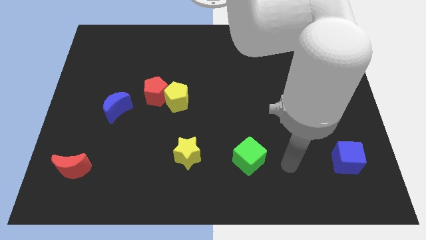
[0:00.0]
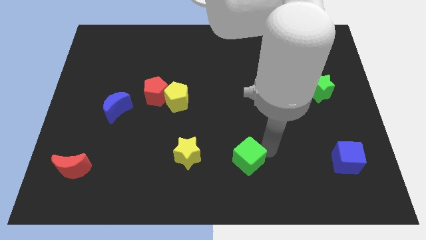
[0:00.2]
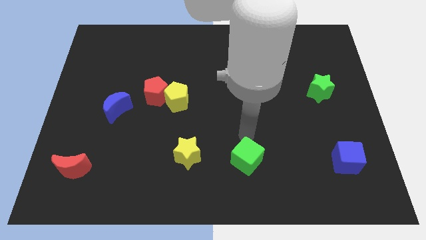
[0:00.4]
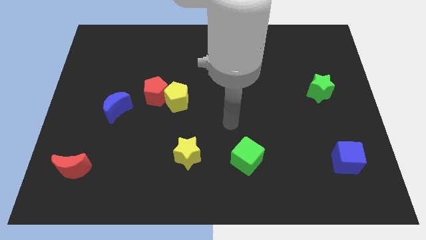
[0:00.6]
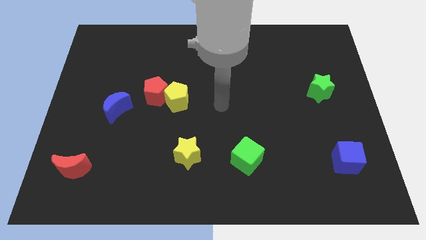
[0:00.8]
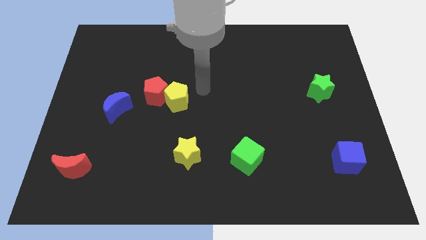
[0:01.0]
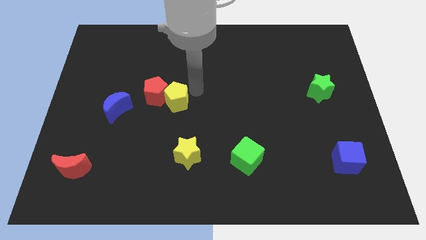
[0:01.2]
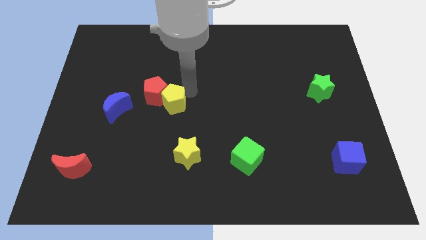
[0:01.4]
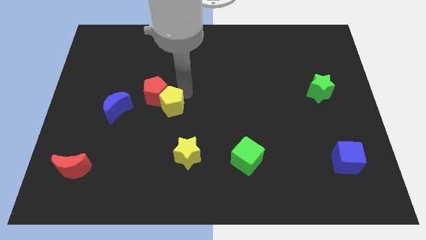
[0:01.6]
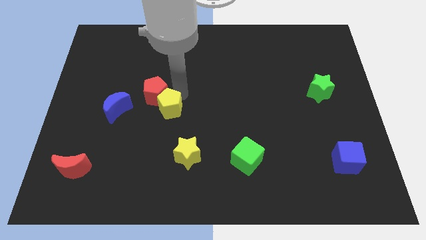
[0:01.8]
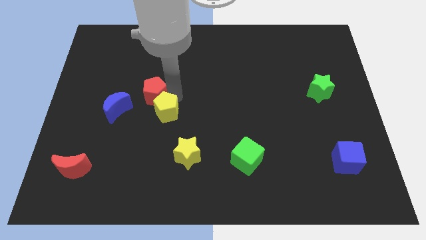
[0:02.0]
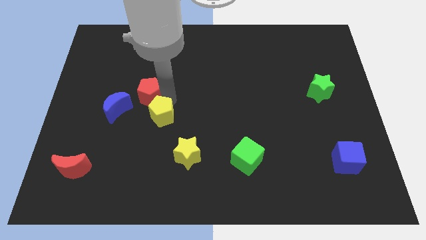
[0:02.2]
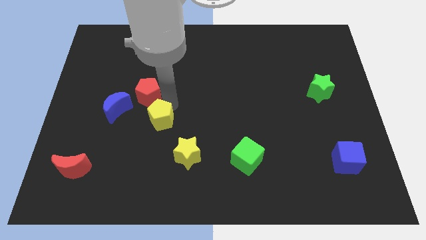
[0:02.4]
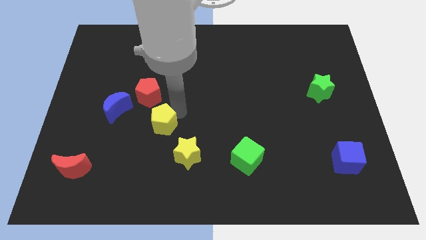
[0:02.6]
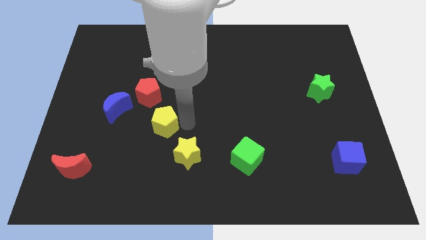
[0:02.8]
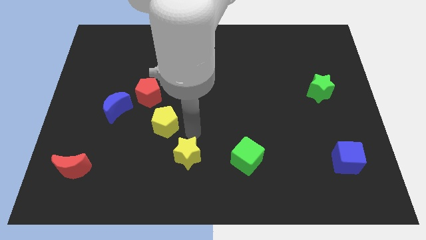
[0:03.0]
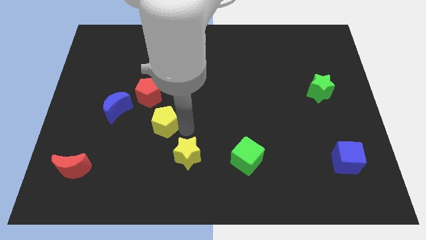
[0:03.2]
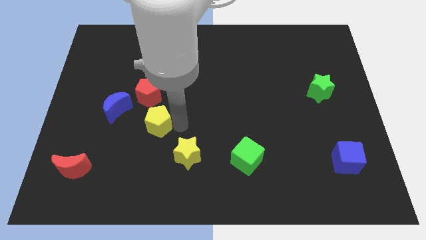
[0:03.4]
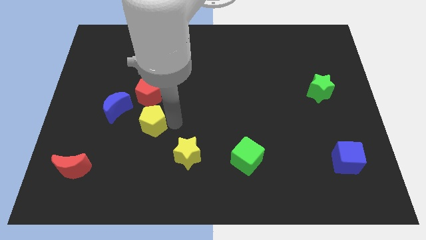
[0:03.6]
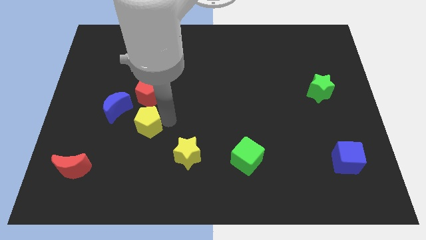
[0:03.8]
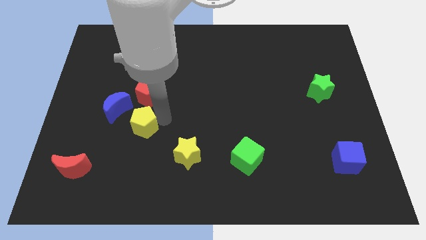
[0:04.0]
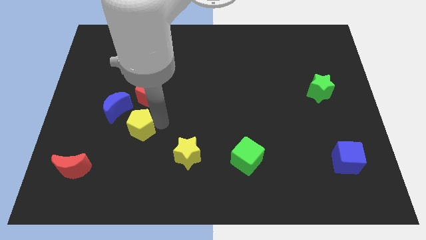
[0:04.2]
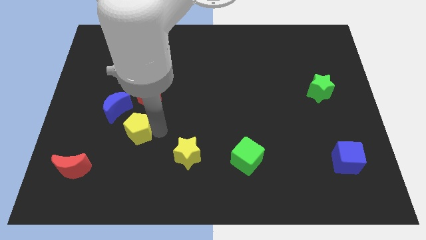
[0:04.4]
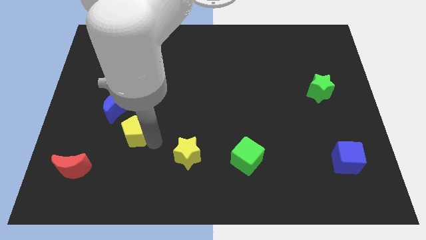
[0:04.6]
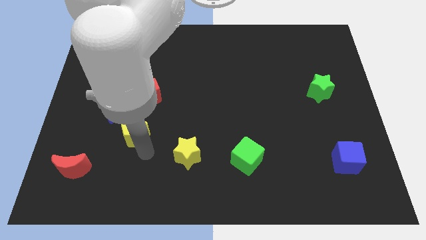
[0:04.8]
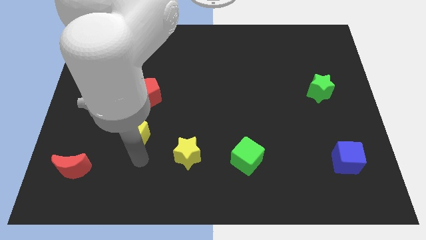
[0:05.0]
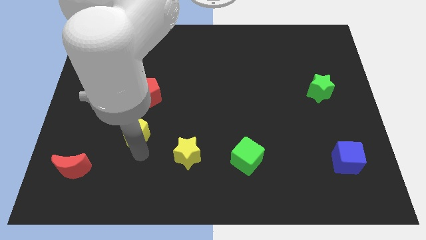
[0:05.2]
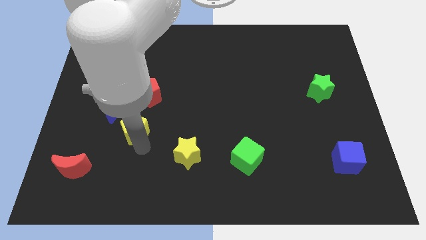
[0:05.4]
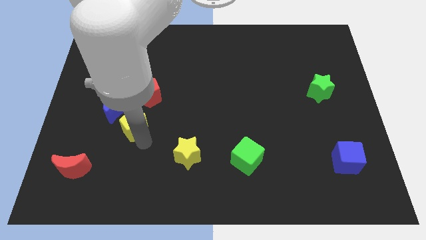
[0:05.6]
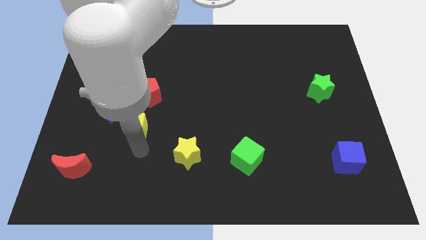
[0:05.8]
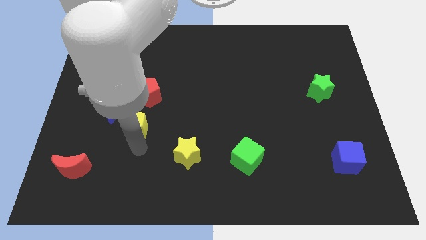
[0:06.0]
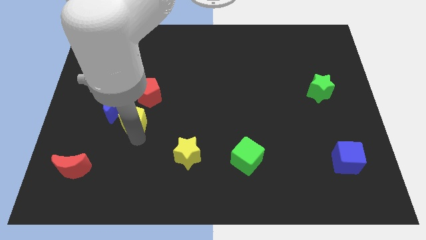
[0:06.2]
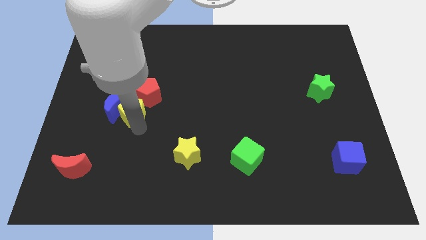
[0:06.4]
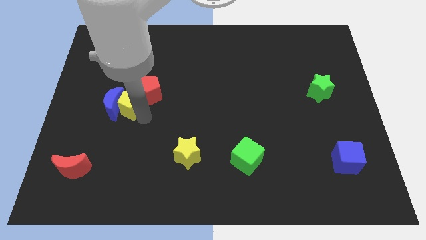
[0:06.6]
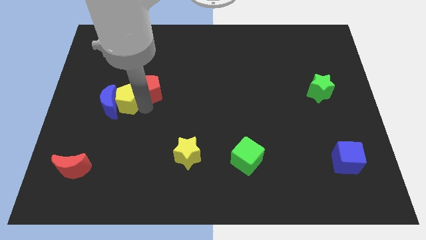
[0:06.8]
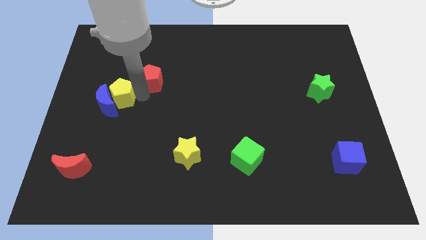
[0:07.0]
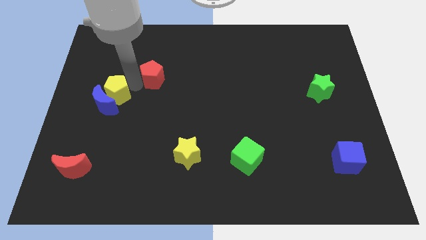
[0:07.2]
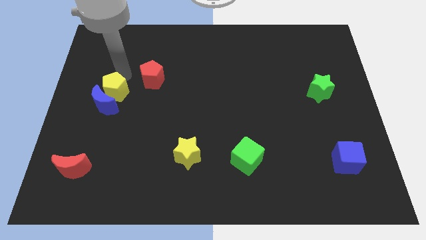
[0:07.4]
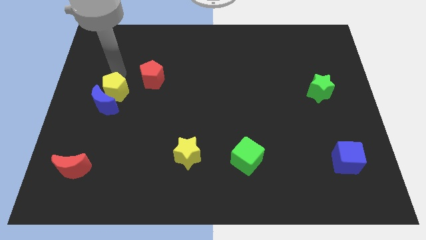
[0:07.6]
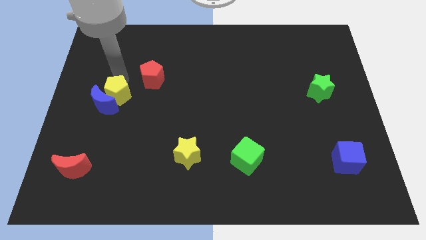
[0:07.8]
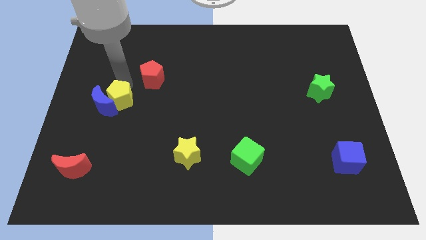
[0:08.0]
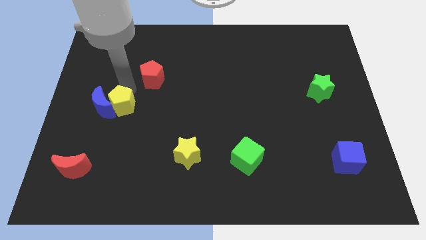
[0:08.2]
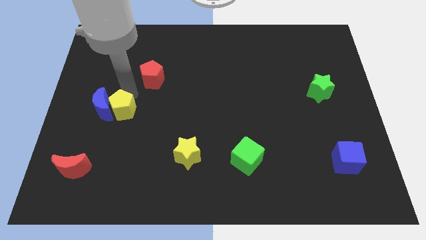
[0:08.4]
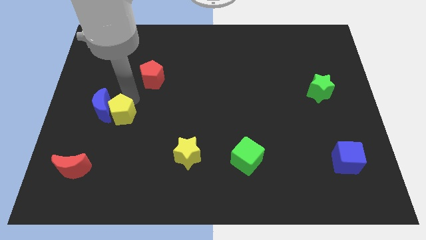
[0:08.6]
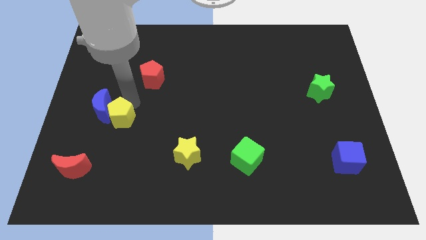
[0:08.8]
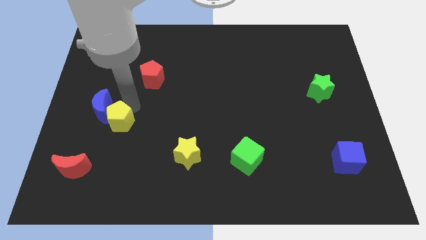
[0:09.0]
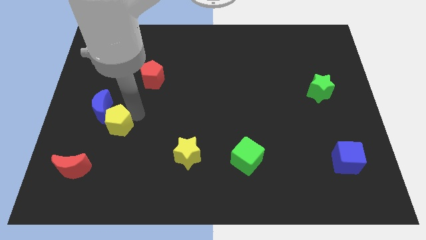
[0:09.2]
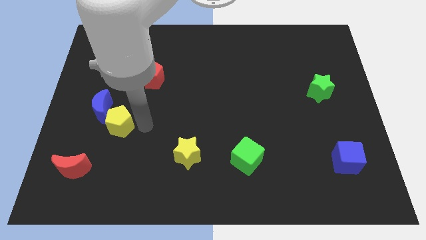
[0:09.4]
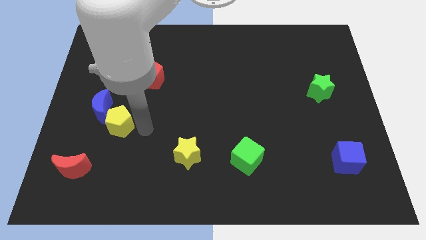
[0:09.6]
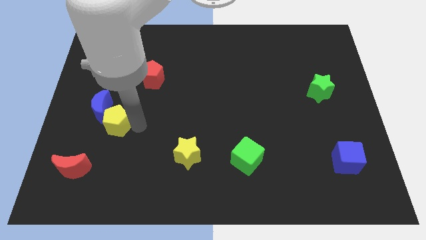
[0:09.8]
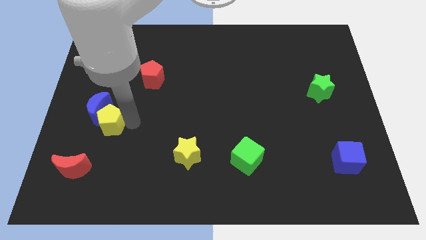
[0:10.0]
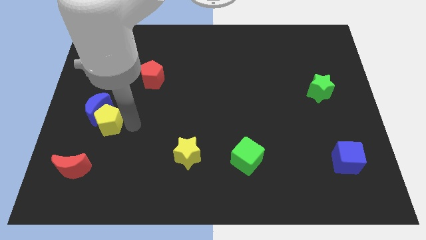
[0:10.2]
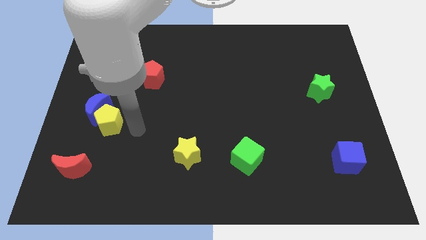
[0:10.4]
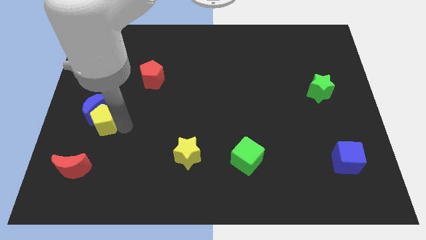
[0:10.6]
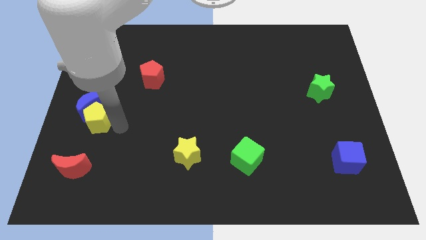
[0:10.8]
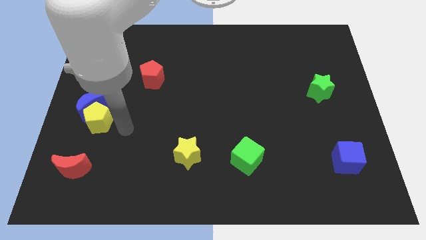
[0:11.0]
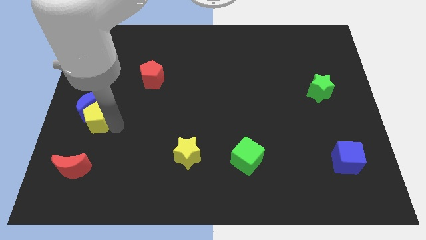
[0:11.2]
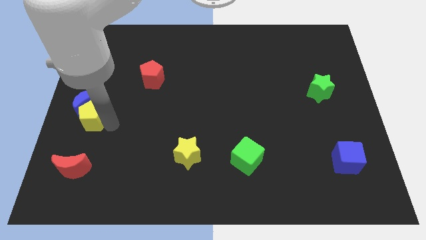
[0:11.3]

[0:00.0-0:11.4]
put the yellow pentagon to the center left
